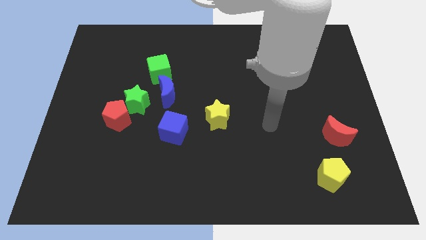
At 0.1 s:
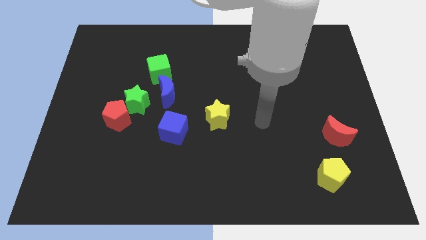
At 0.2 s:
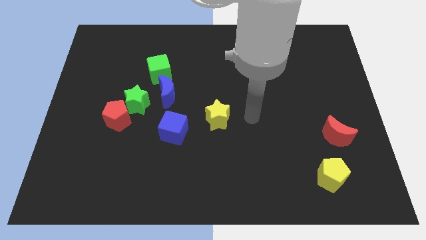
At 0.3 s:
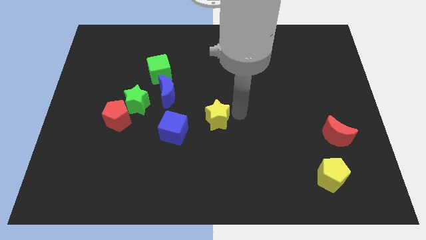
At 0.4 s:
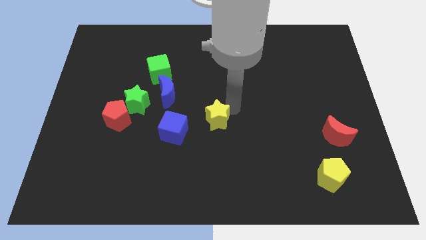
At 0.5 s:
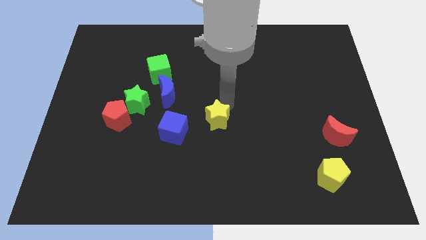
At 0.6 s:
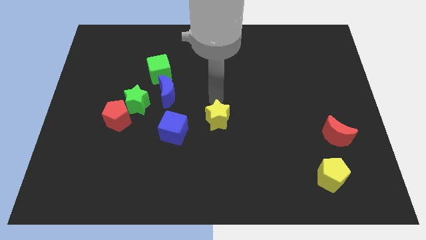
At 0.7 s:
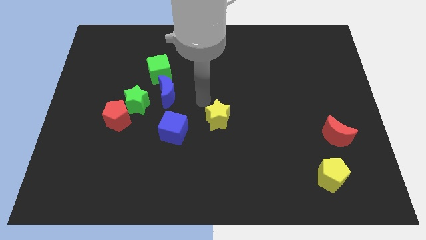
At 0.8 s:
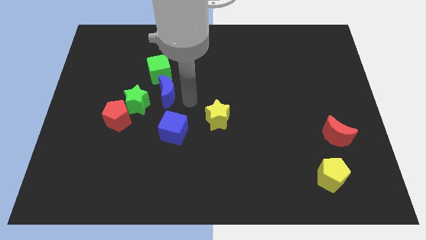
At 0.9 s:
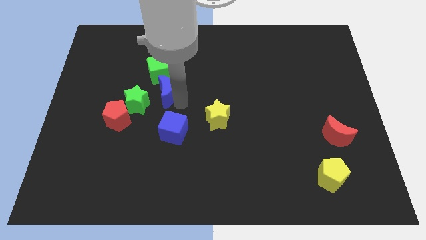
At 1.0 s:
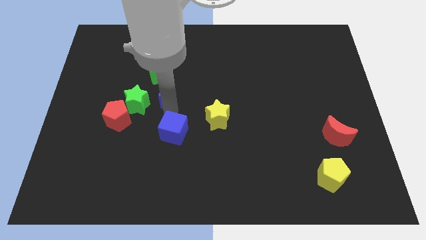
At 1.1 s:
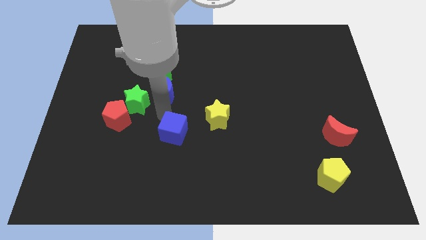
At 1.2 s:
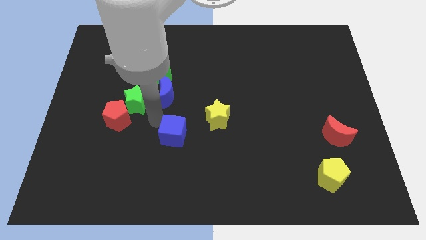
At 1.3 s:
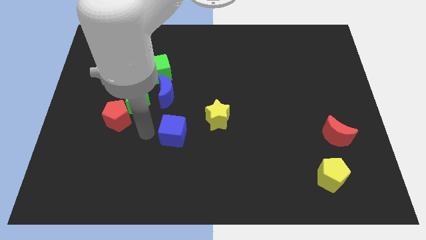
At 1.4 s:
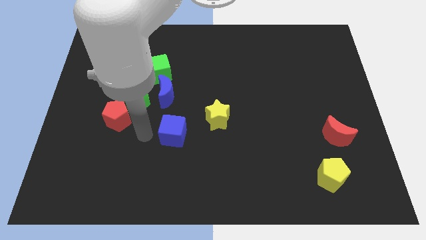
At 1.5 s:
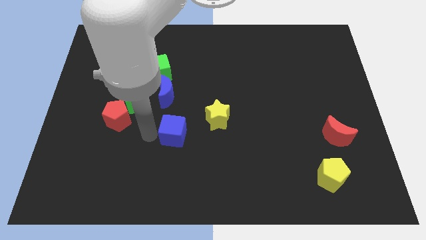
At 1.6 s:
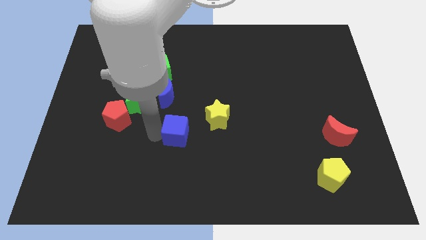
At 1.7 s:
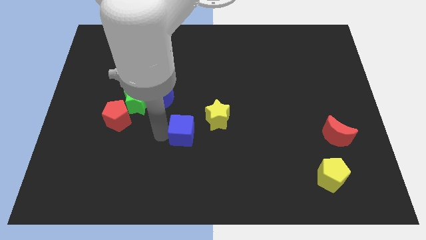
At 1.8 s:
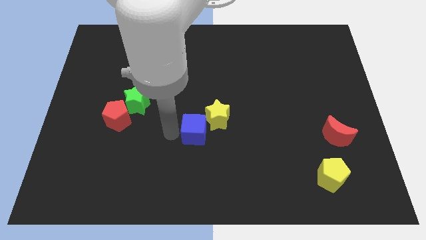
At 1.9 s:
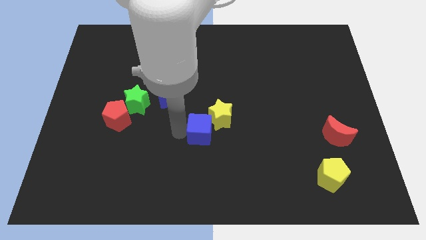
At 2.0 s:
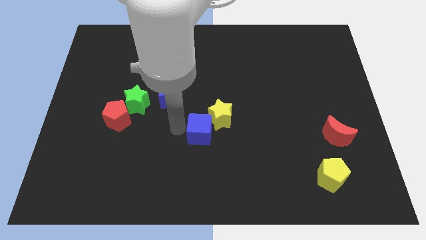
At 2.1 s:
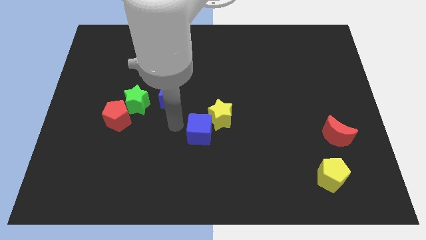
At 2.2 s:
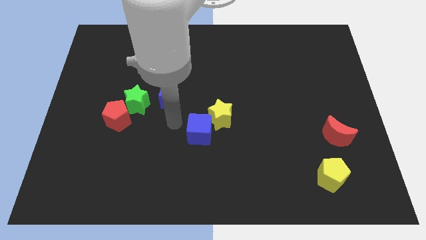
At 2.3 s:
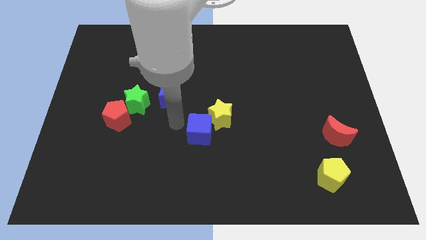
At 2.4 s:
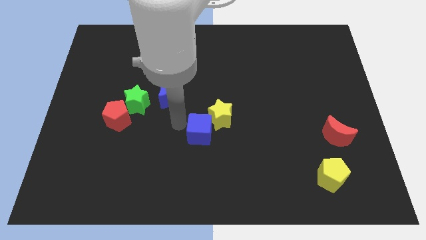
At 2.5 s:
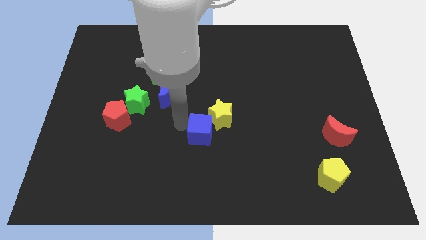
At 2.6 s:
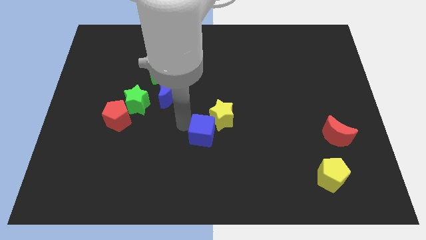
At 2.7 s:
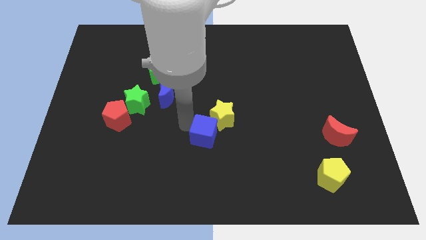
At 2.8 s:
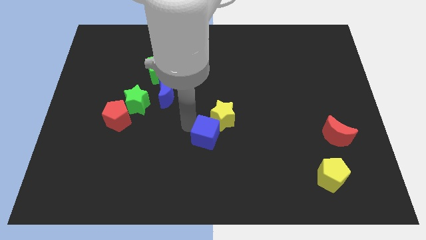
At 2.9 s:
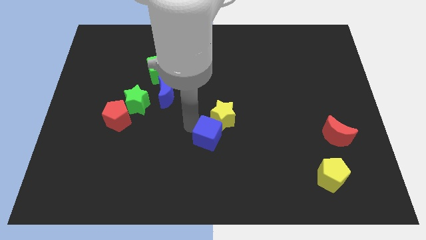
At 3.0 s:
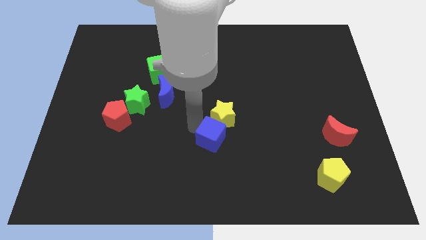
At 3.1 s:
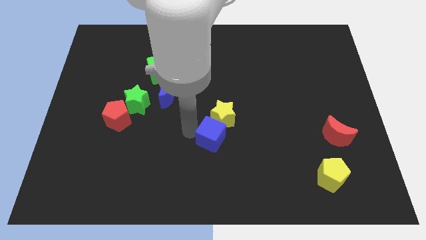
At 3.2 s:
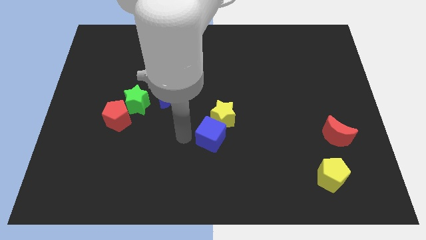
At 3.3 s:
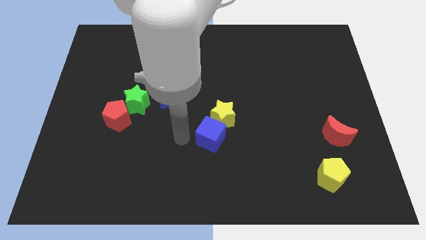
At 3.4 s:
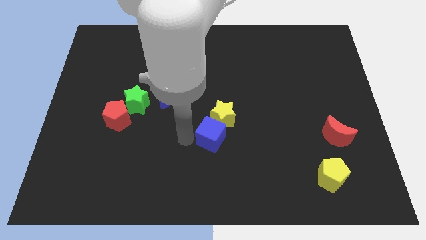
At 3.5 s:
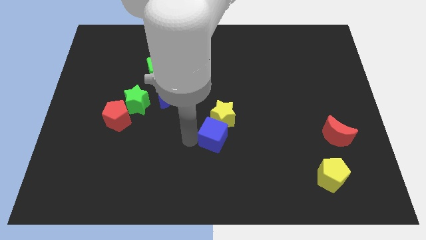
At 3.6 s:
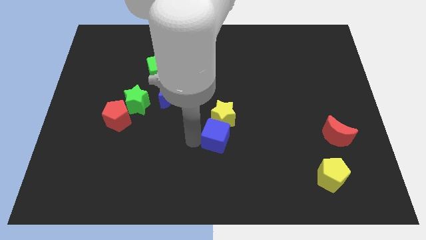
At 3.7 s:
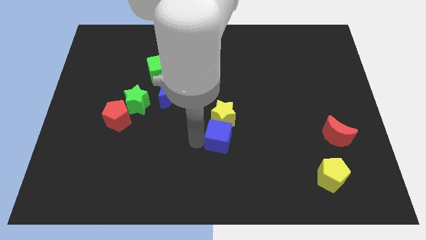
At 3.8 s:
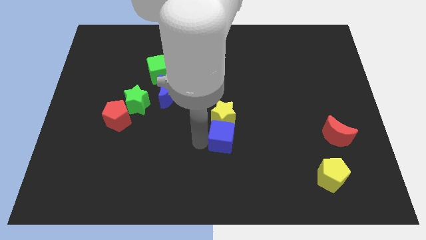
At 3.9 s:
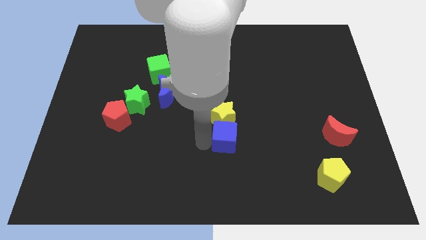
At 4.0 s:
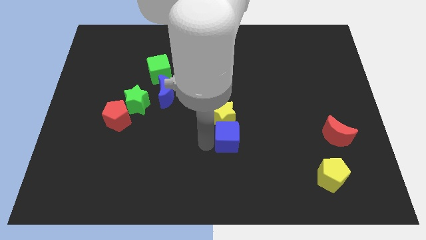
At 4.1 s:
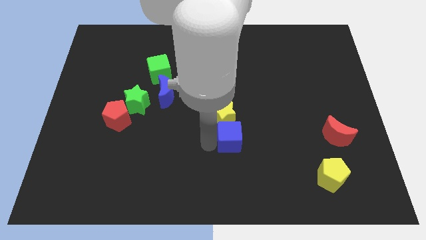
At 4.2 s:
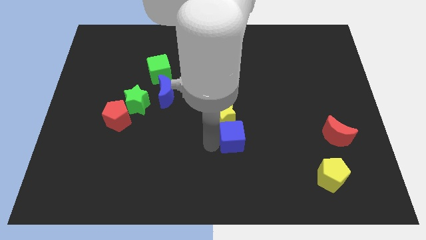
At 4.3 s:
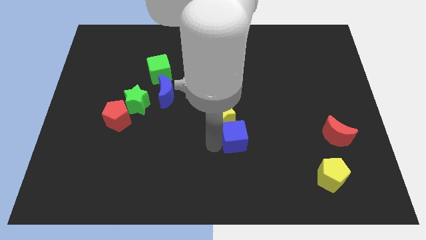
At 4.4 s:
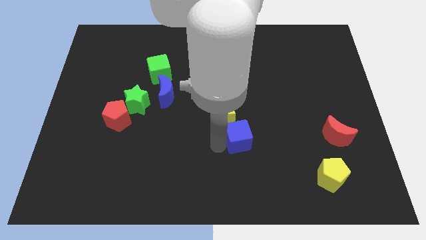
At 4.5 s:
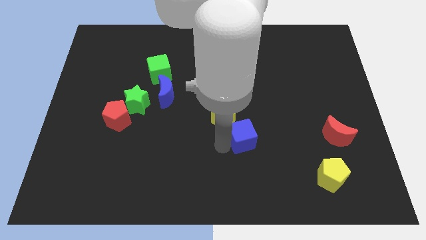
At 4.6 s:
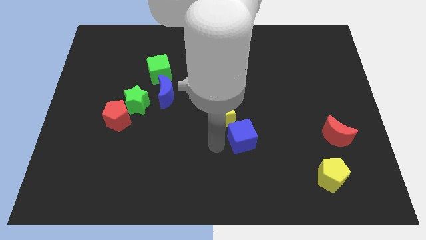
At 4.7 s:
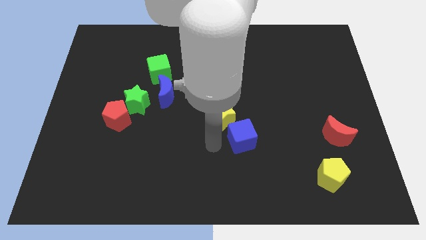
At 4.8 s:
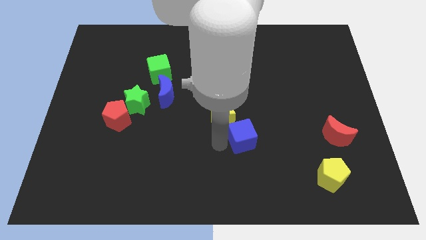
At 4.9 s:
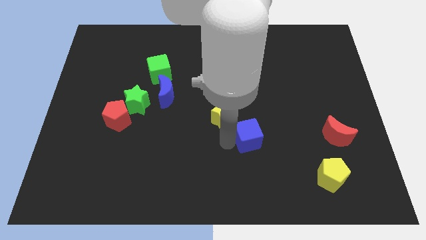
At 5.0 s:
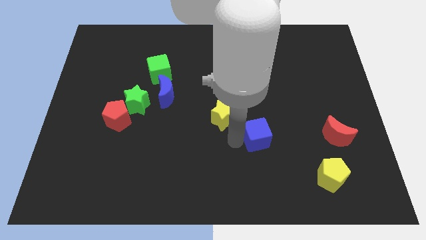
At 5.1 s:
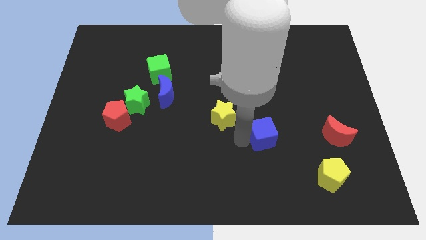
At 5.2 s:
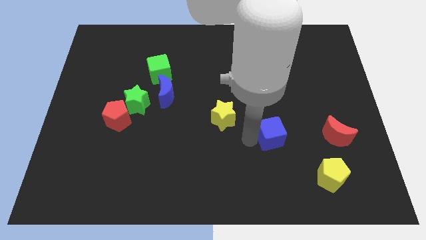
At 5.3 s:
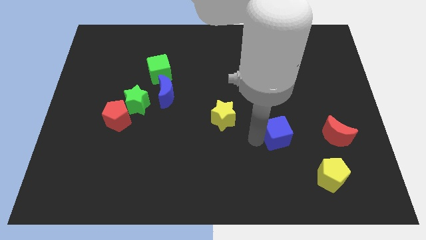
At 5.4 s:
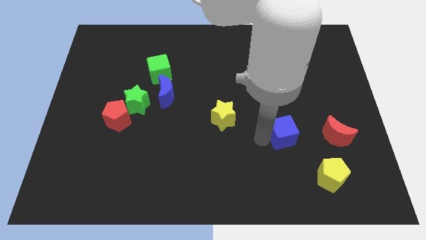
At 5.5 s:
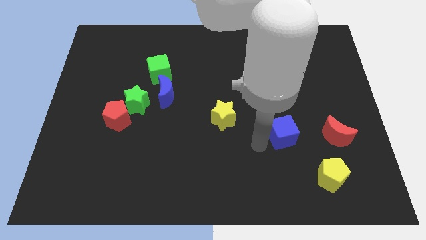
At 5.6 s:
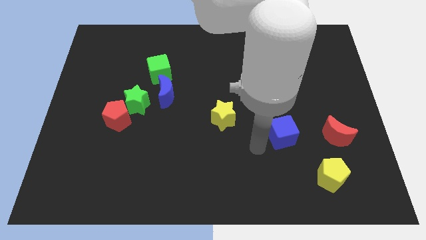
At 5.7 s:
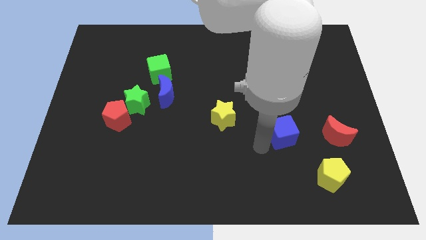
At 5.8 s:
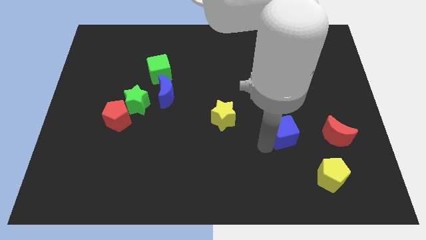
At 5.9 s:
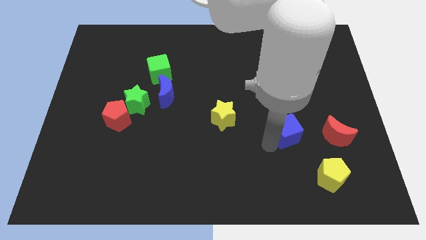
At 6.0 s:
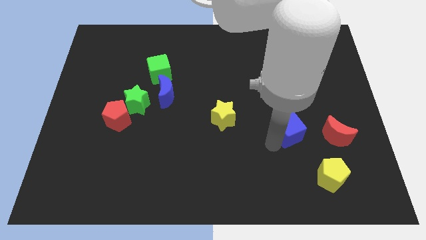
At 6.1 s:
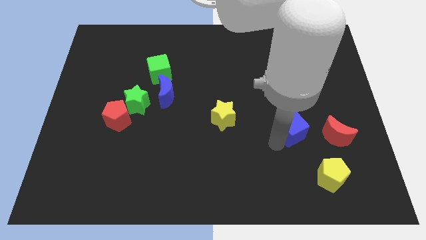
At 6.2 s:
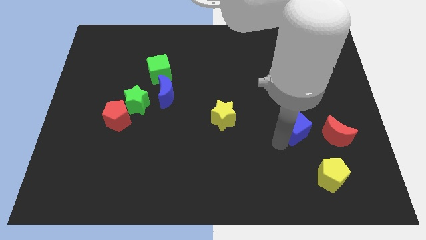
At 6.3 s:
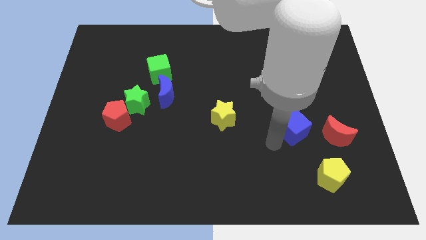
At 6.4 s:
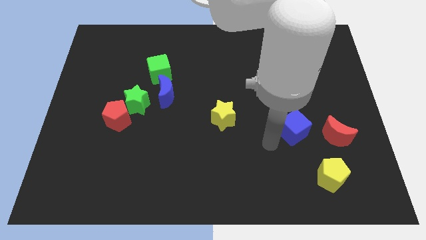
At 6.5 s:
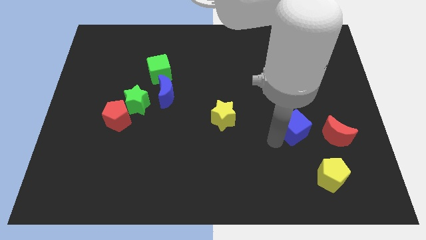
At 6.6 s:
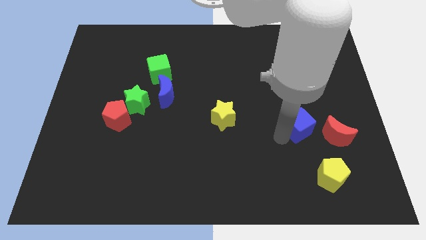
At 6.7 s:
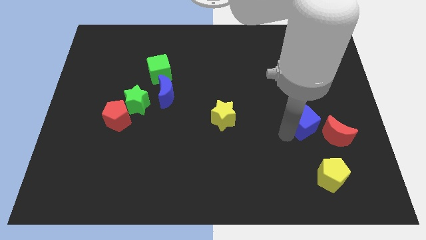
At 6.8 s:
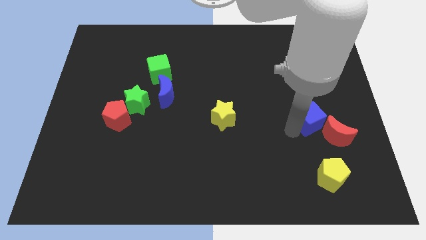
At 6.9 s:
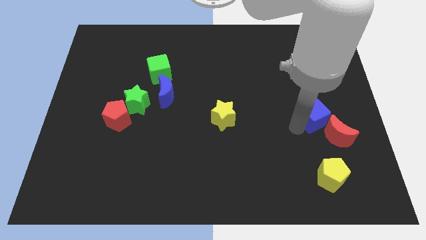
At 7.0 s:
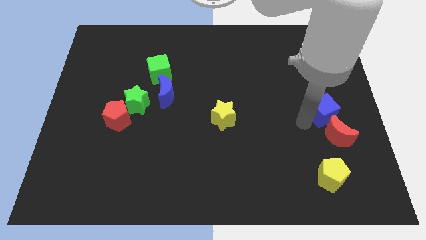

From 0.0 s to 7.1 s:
put the blue cube to the right side of the board
